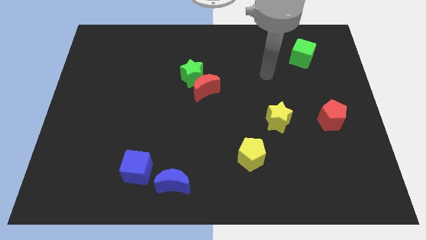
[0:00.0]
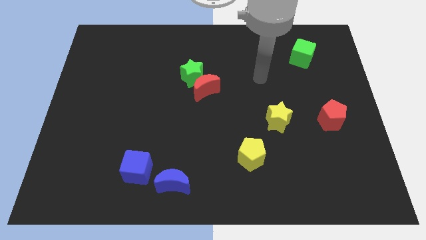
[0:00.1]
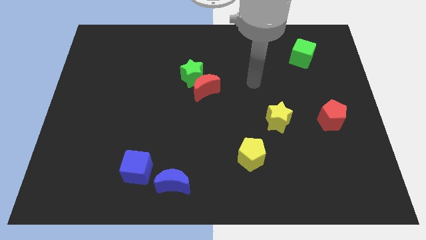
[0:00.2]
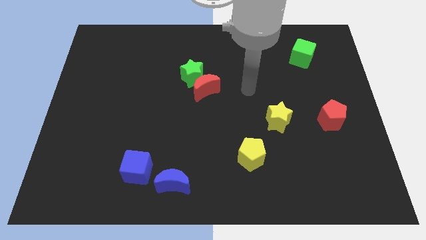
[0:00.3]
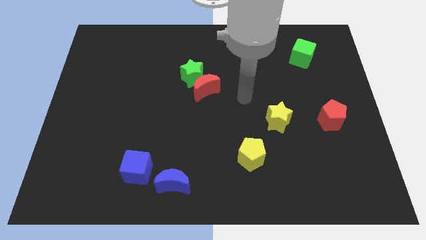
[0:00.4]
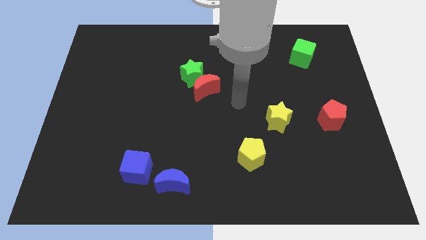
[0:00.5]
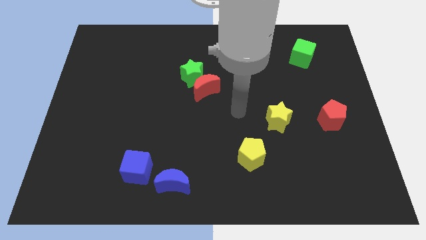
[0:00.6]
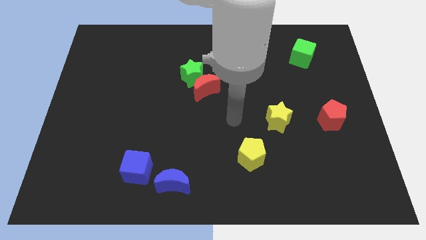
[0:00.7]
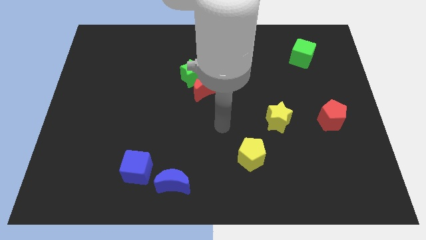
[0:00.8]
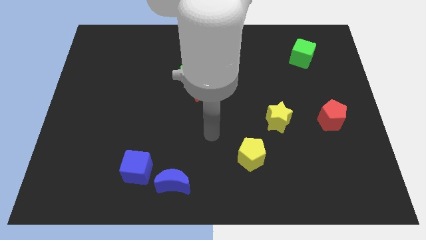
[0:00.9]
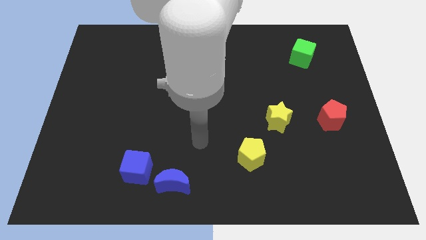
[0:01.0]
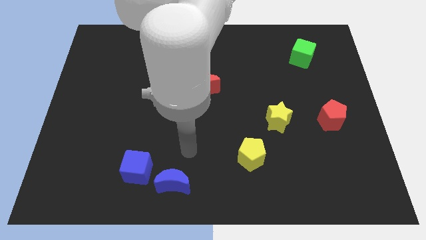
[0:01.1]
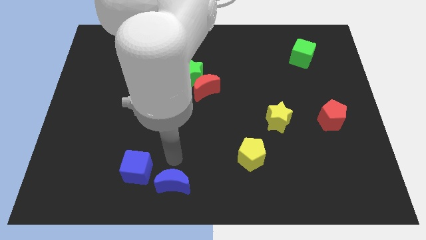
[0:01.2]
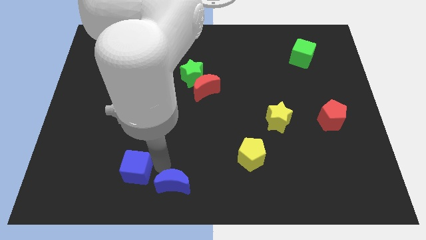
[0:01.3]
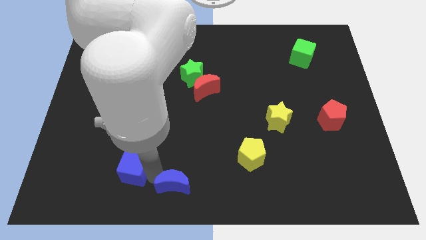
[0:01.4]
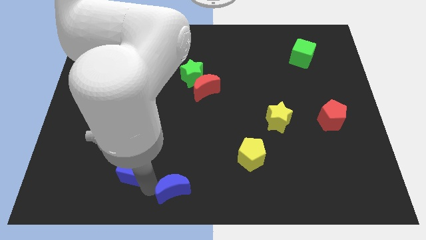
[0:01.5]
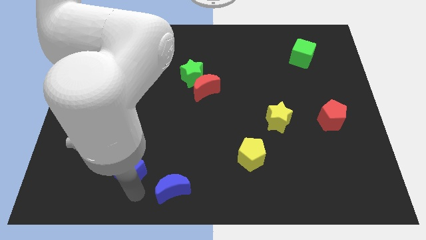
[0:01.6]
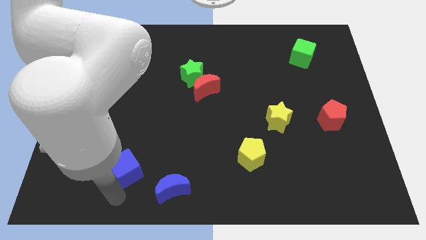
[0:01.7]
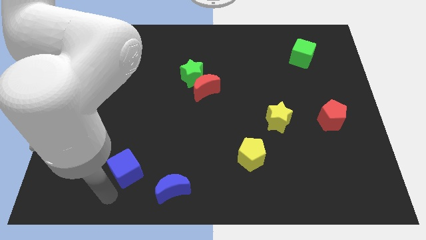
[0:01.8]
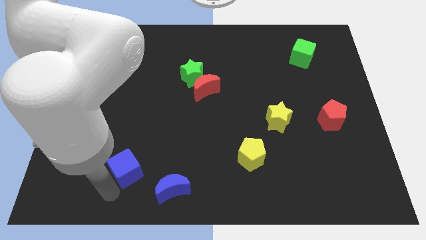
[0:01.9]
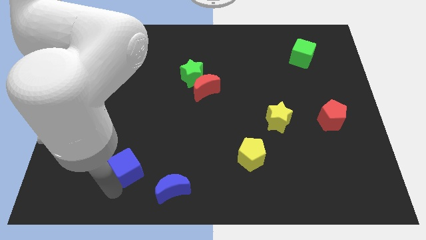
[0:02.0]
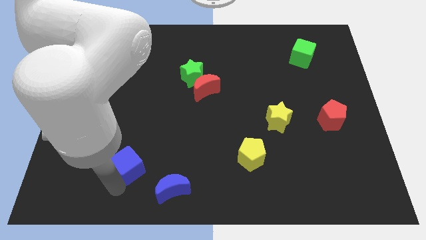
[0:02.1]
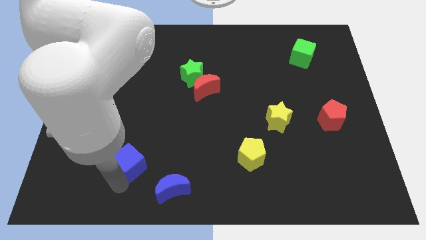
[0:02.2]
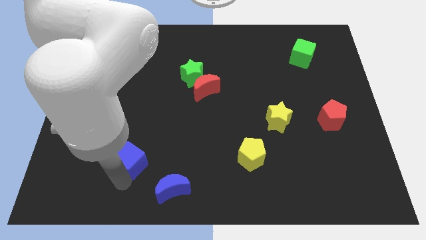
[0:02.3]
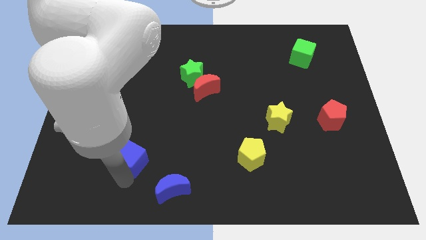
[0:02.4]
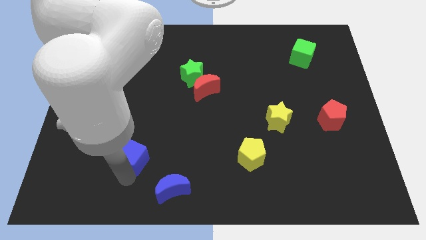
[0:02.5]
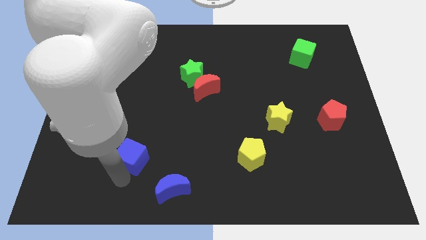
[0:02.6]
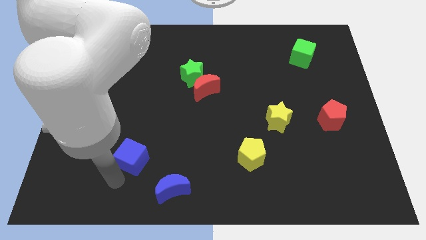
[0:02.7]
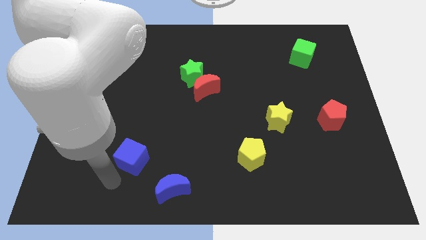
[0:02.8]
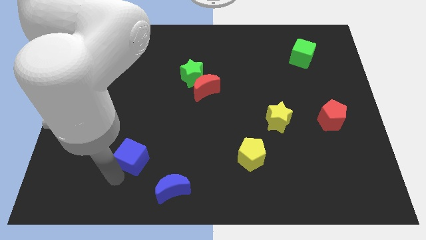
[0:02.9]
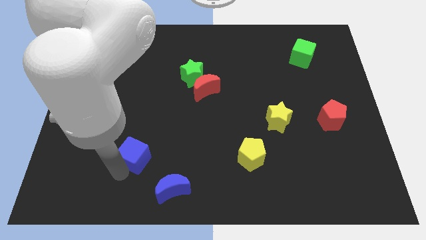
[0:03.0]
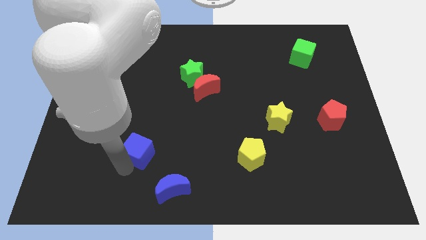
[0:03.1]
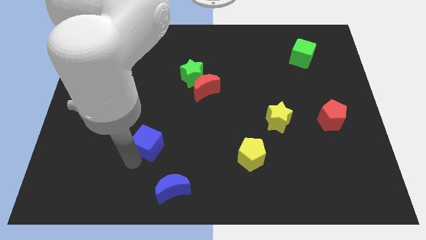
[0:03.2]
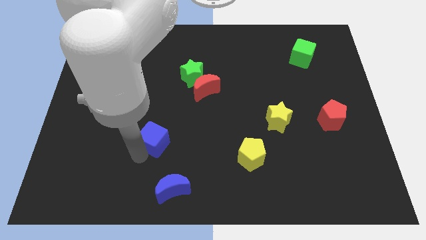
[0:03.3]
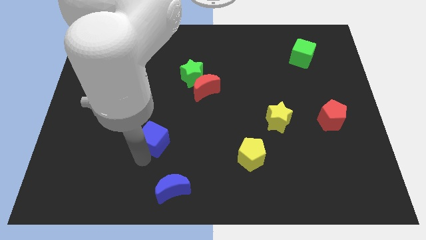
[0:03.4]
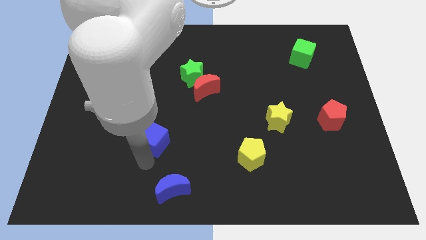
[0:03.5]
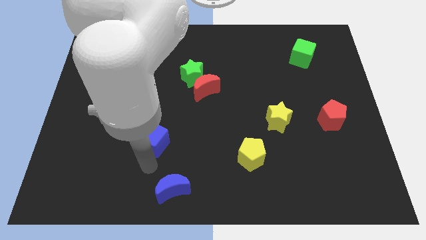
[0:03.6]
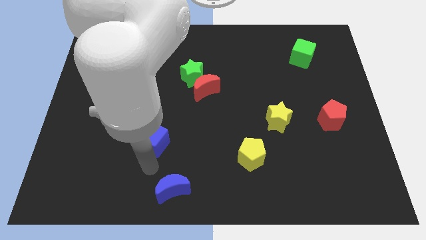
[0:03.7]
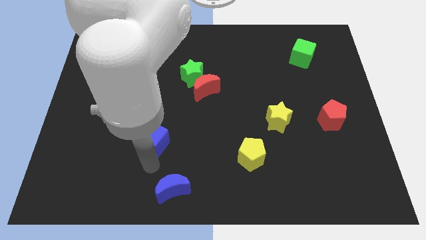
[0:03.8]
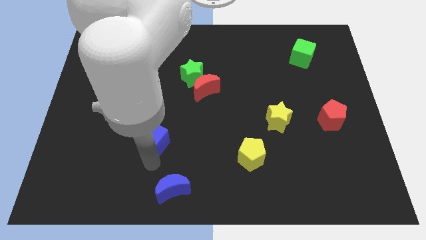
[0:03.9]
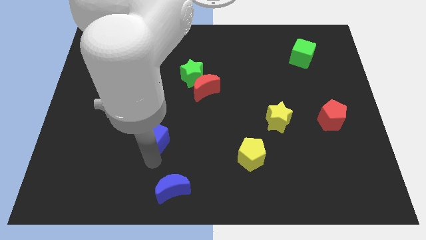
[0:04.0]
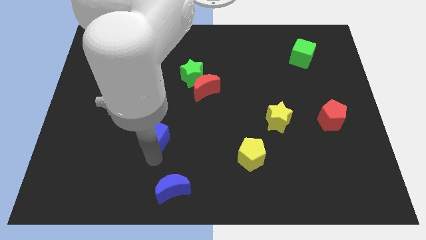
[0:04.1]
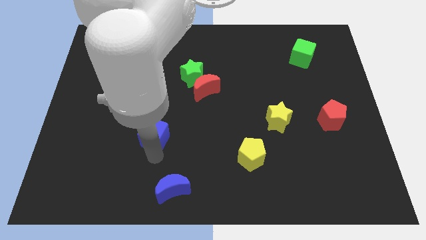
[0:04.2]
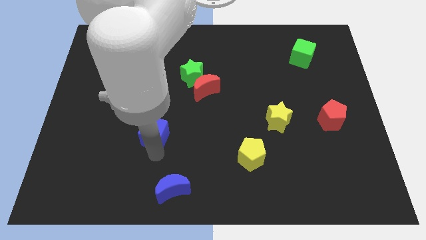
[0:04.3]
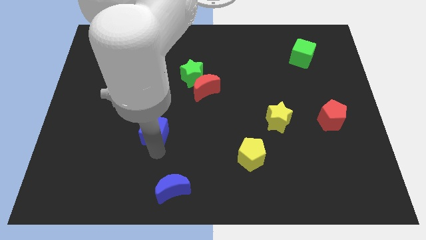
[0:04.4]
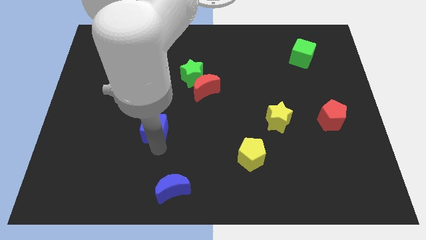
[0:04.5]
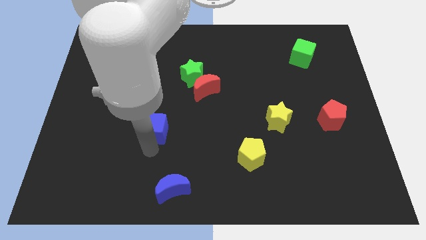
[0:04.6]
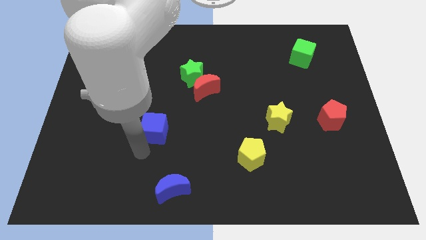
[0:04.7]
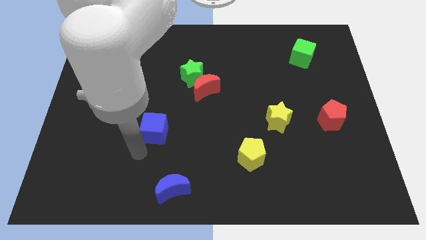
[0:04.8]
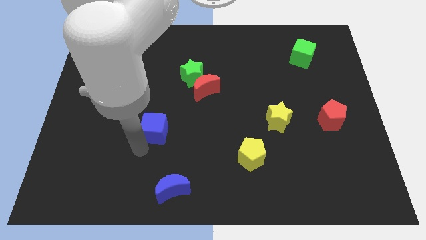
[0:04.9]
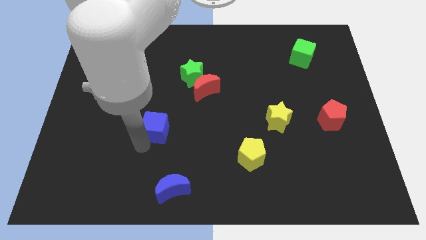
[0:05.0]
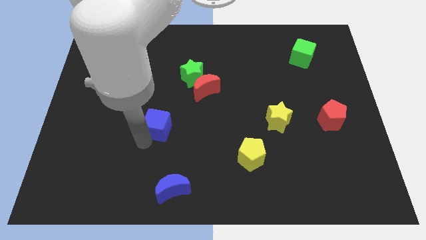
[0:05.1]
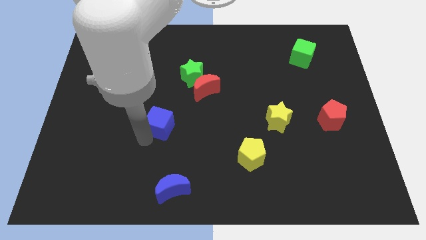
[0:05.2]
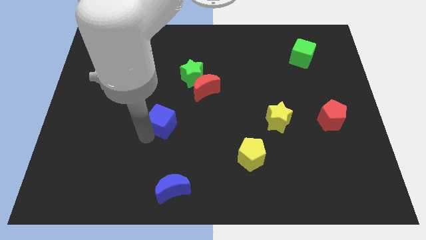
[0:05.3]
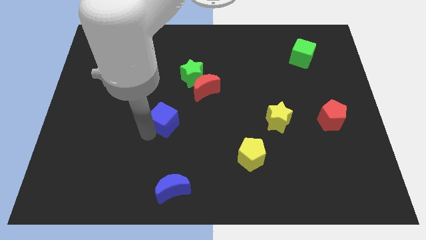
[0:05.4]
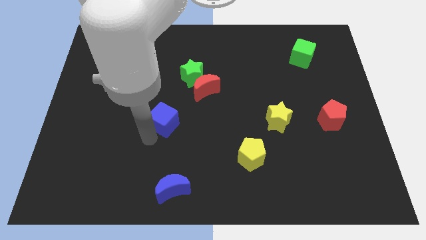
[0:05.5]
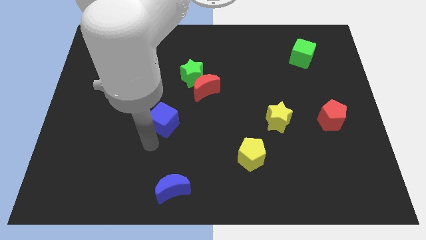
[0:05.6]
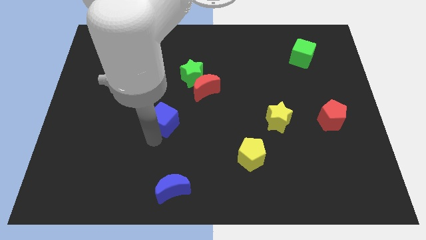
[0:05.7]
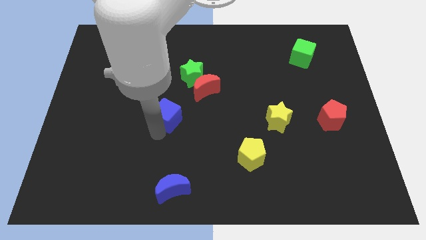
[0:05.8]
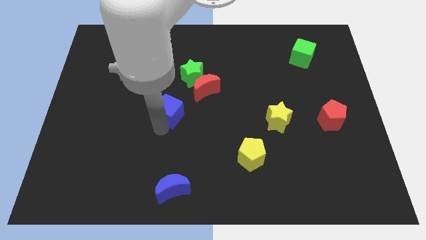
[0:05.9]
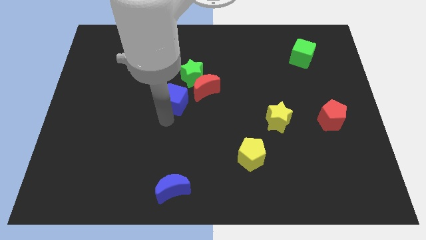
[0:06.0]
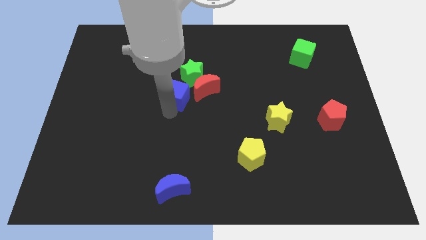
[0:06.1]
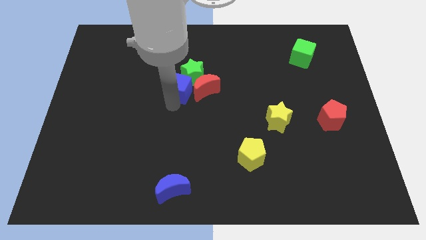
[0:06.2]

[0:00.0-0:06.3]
slide the blue cube next to the green star
